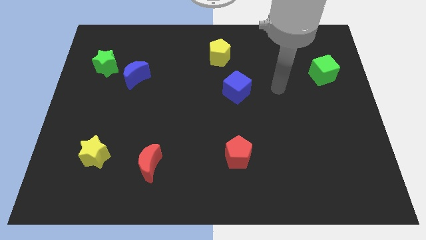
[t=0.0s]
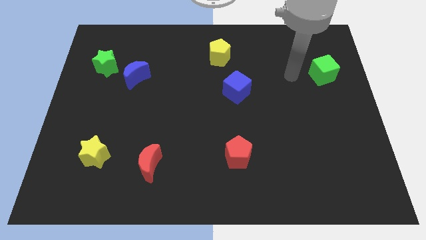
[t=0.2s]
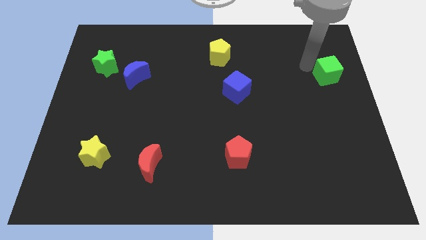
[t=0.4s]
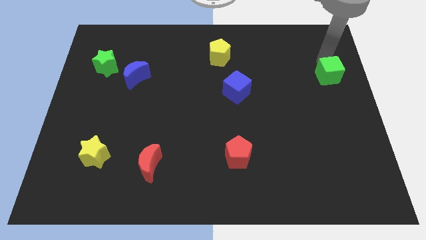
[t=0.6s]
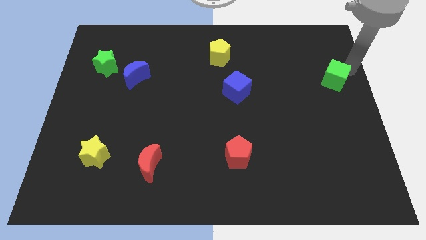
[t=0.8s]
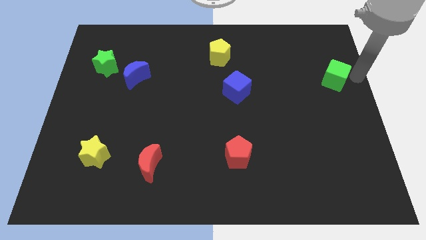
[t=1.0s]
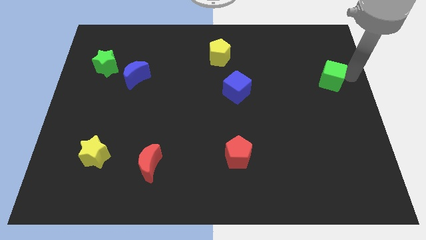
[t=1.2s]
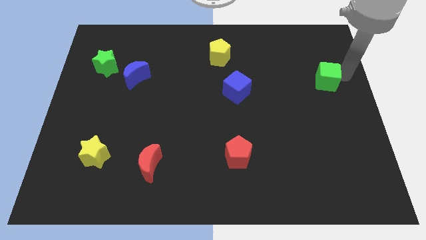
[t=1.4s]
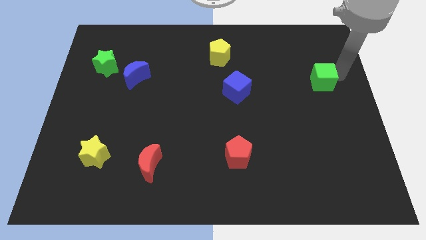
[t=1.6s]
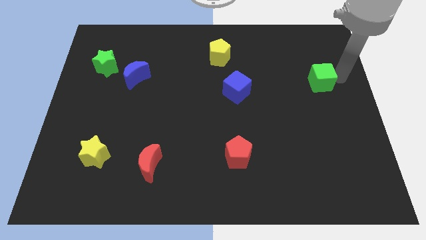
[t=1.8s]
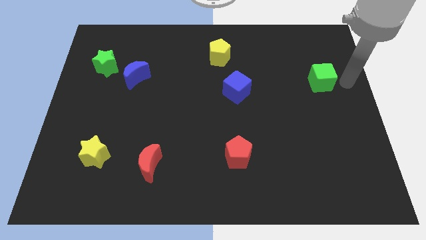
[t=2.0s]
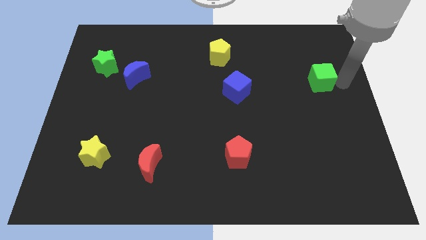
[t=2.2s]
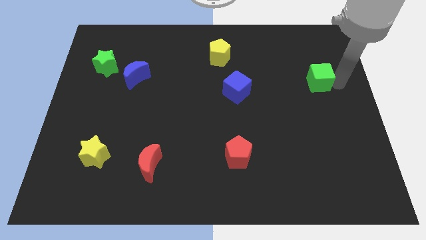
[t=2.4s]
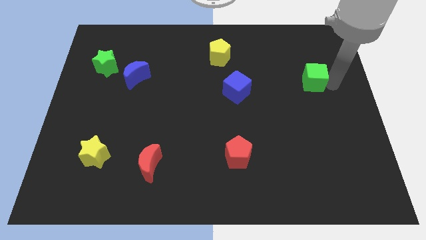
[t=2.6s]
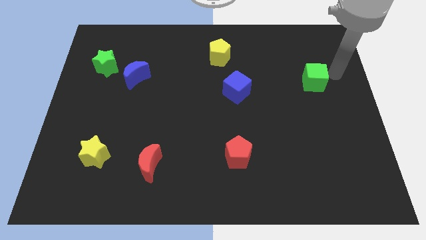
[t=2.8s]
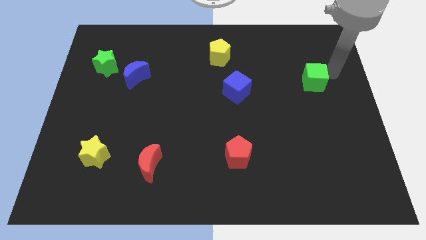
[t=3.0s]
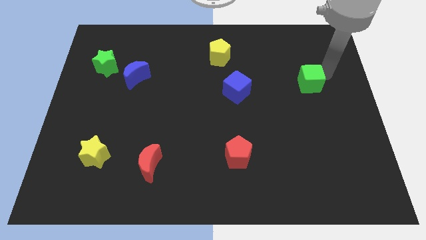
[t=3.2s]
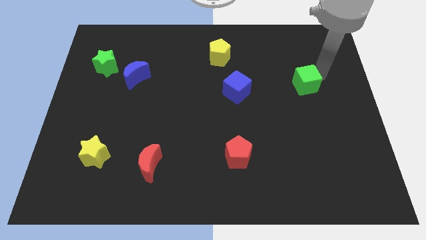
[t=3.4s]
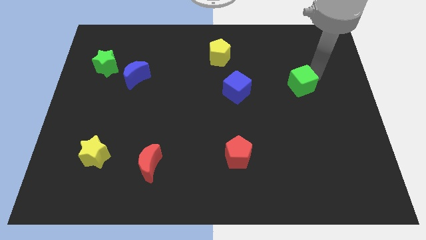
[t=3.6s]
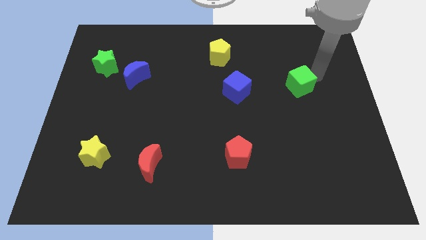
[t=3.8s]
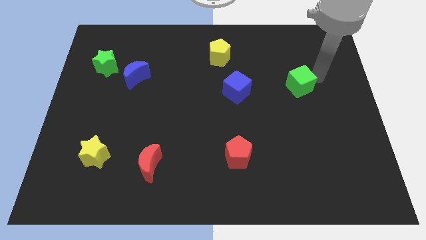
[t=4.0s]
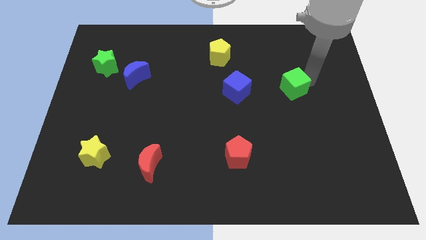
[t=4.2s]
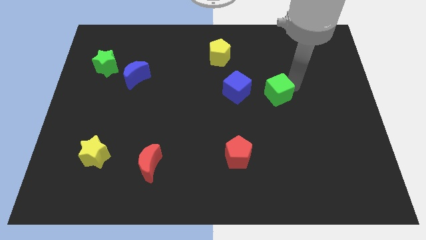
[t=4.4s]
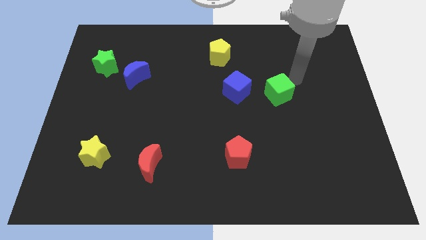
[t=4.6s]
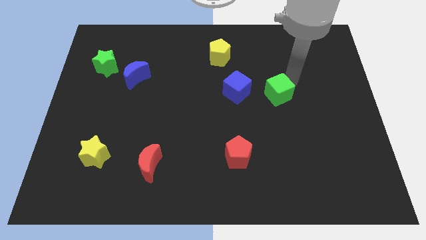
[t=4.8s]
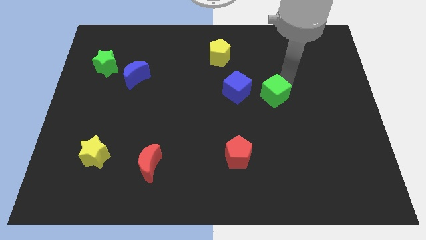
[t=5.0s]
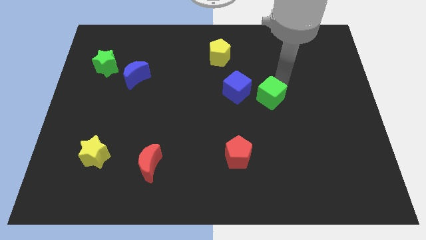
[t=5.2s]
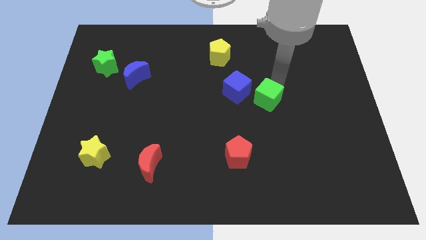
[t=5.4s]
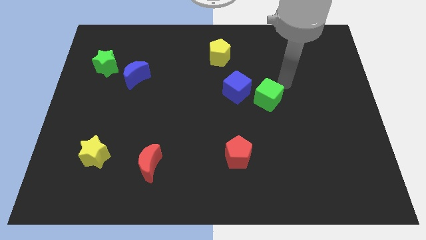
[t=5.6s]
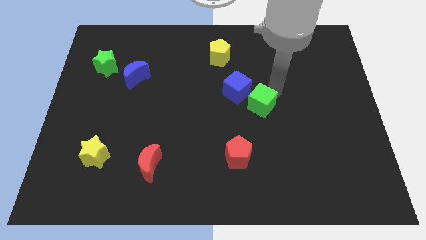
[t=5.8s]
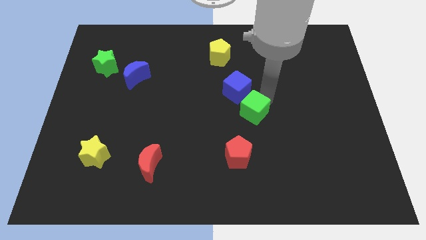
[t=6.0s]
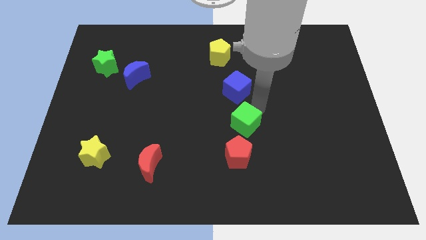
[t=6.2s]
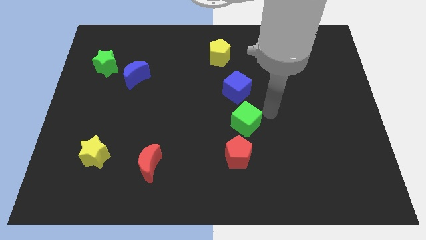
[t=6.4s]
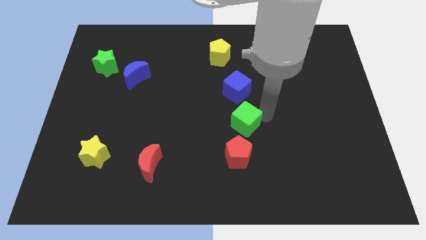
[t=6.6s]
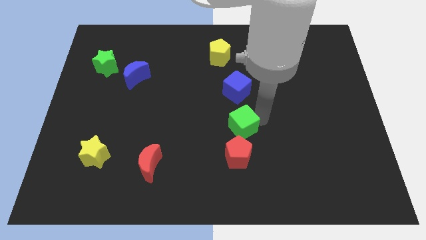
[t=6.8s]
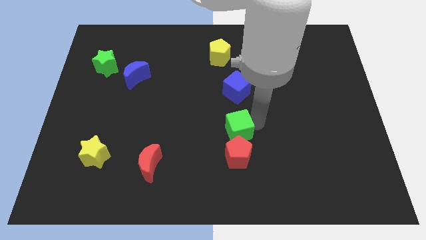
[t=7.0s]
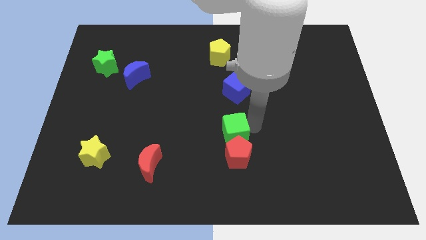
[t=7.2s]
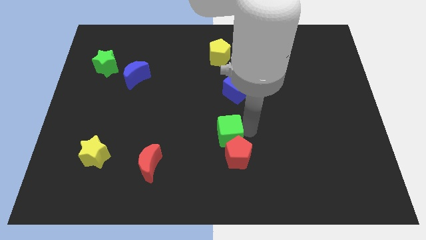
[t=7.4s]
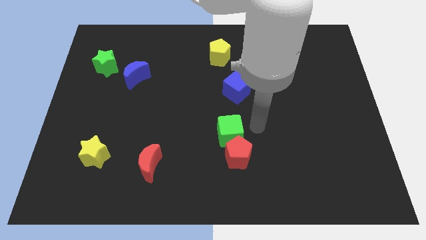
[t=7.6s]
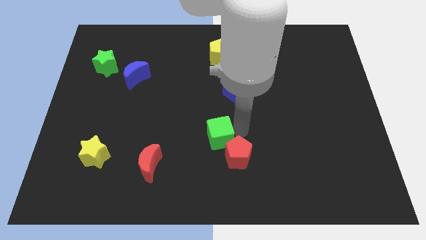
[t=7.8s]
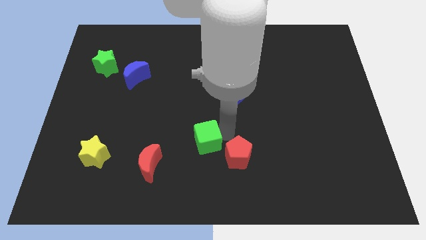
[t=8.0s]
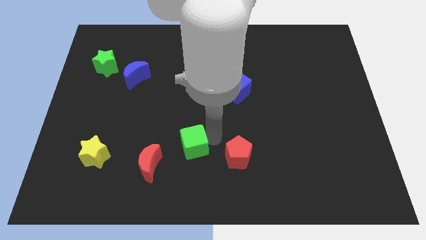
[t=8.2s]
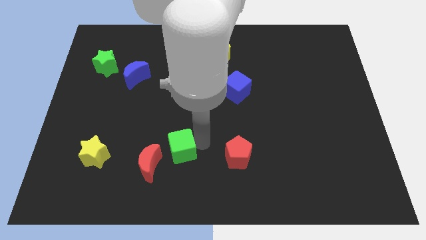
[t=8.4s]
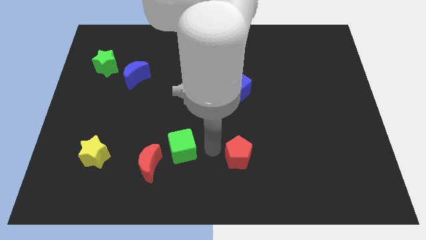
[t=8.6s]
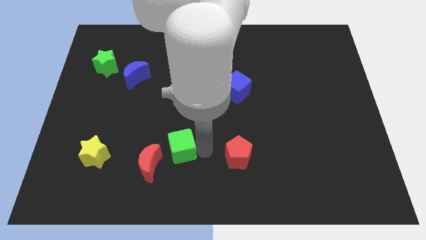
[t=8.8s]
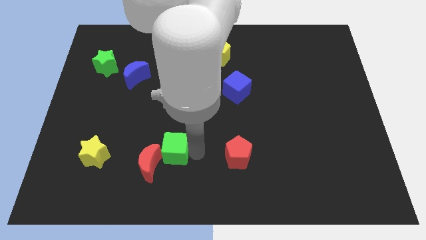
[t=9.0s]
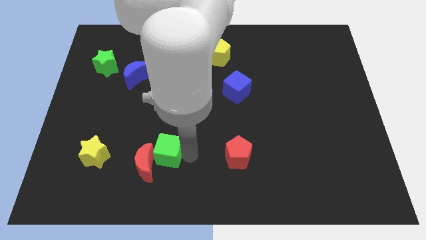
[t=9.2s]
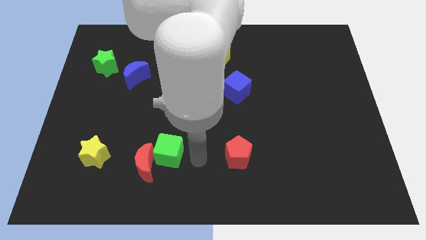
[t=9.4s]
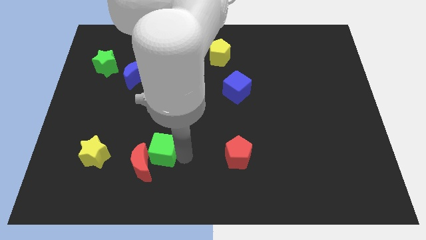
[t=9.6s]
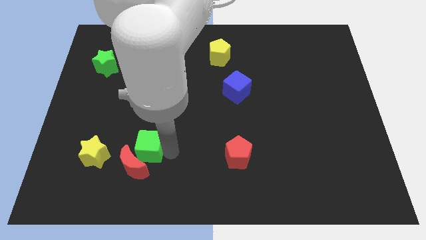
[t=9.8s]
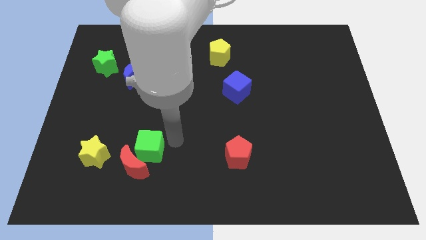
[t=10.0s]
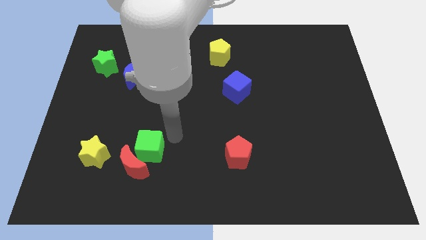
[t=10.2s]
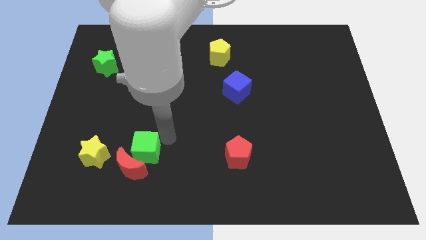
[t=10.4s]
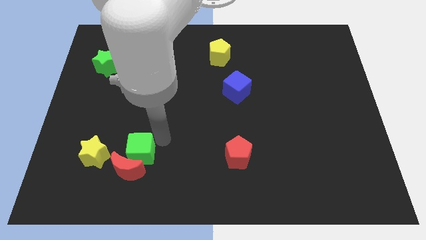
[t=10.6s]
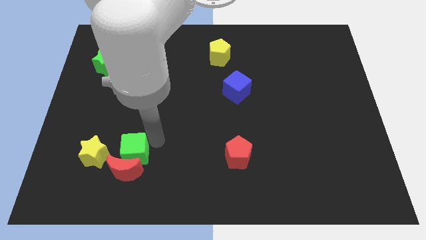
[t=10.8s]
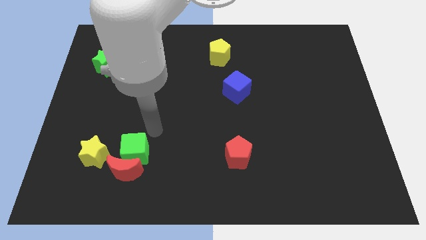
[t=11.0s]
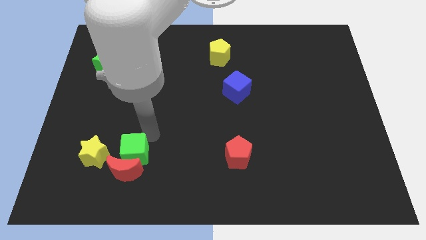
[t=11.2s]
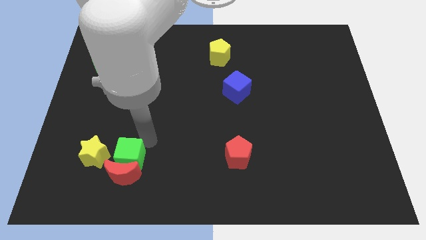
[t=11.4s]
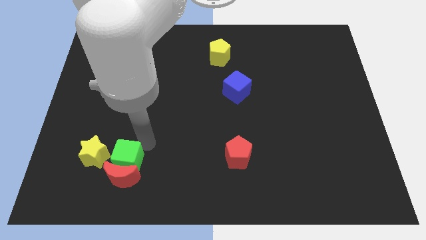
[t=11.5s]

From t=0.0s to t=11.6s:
push the green cube to the bottom right of the yellow star

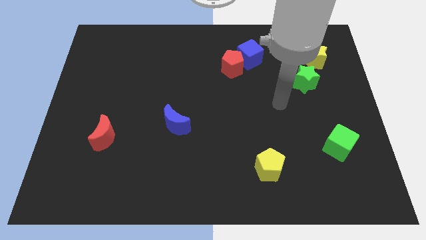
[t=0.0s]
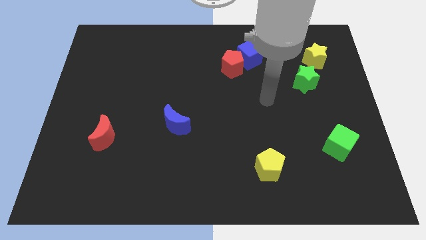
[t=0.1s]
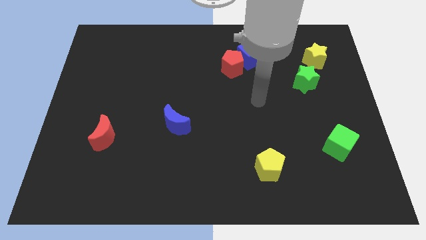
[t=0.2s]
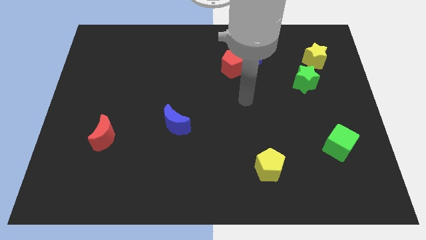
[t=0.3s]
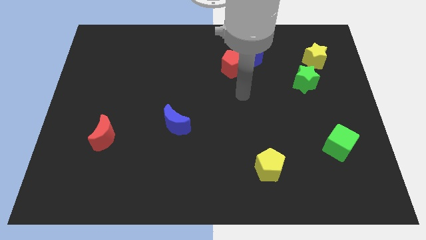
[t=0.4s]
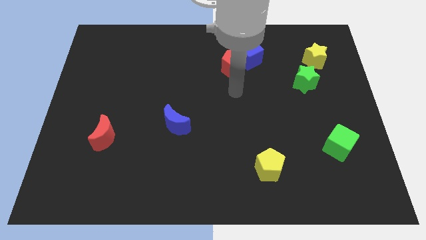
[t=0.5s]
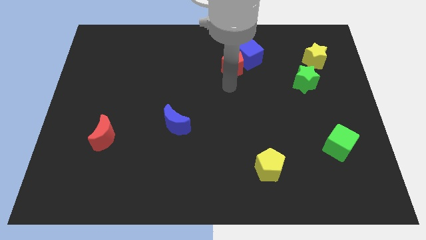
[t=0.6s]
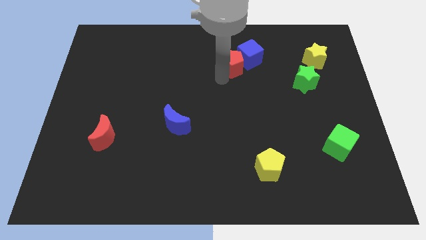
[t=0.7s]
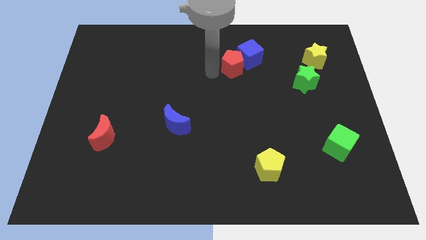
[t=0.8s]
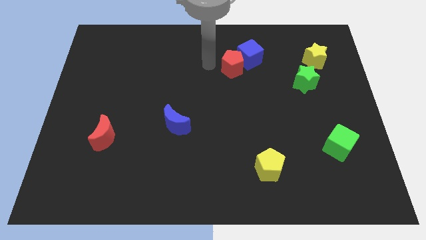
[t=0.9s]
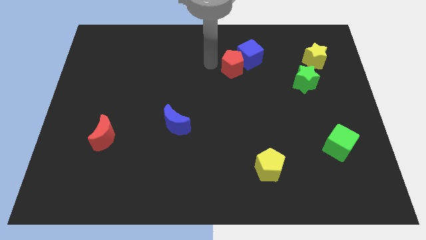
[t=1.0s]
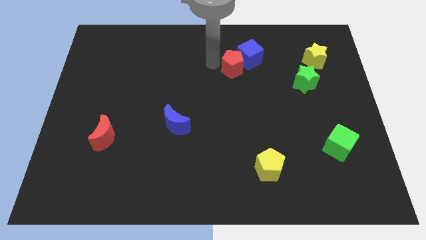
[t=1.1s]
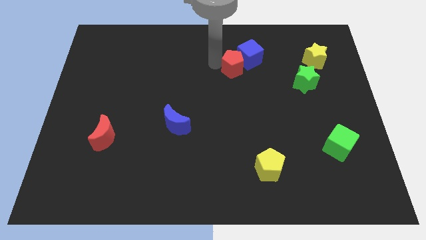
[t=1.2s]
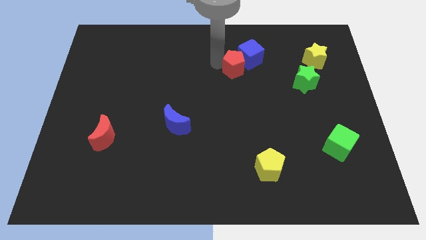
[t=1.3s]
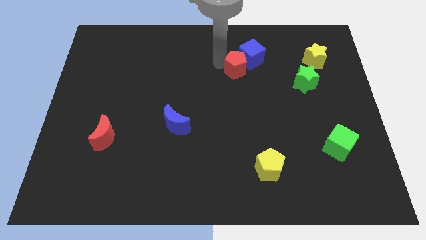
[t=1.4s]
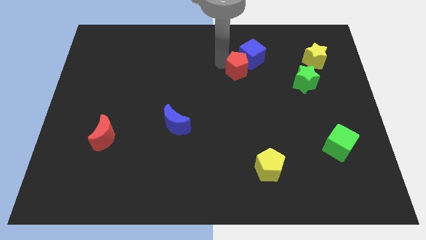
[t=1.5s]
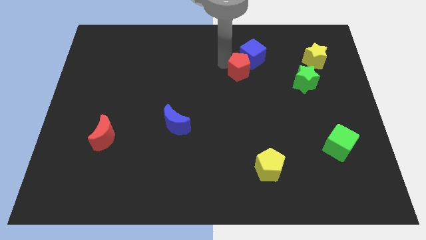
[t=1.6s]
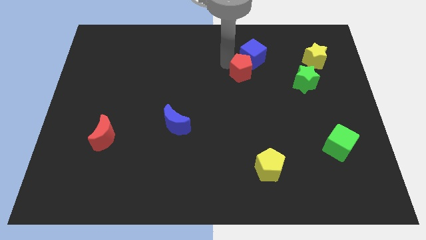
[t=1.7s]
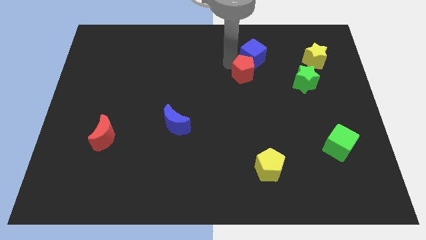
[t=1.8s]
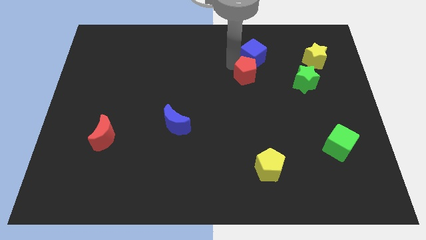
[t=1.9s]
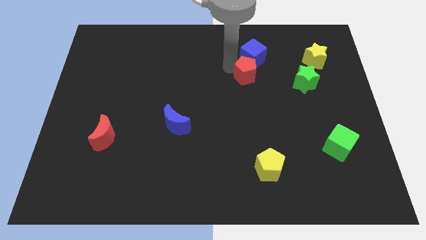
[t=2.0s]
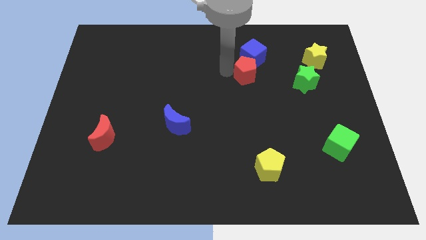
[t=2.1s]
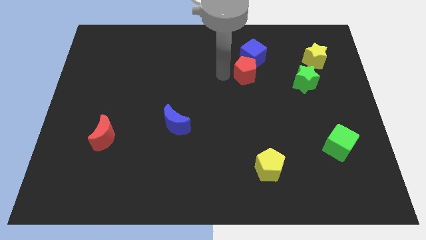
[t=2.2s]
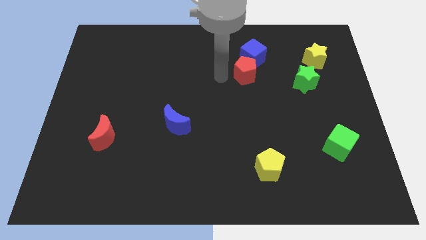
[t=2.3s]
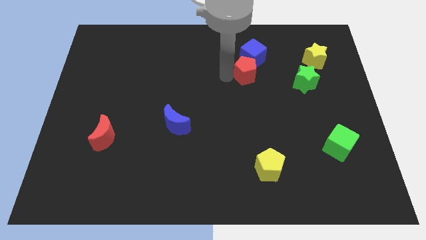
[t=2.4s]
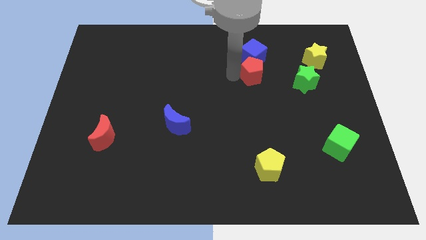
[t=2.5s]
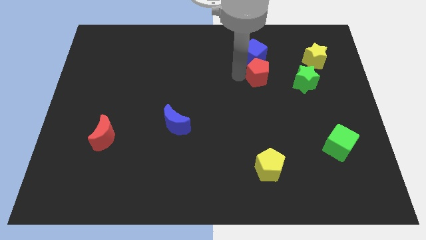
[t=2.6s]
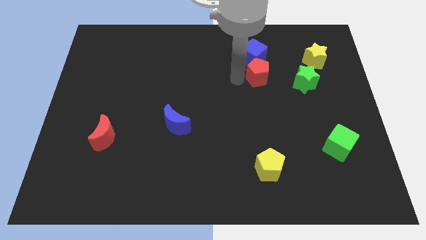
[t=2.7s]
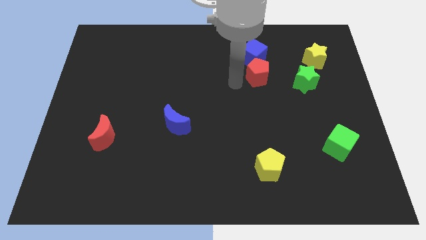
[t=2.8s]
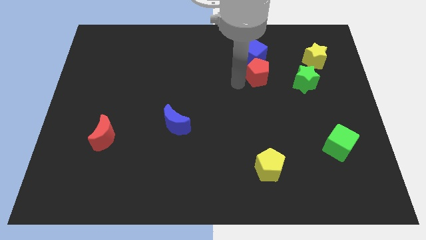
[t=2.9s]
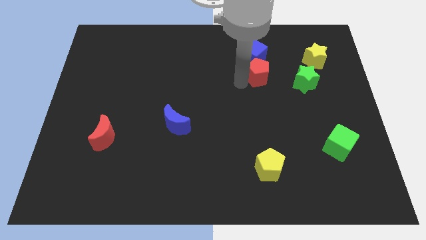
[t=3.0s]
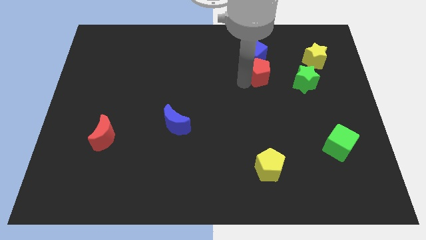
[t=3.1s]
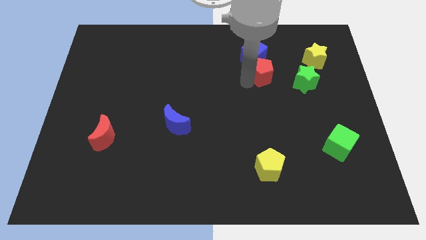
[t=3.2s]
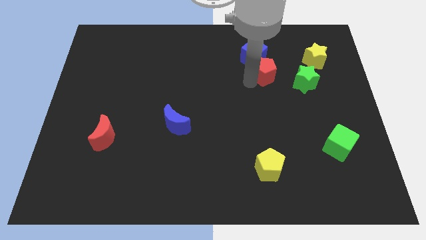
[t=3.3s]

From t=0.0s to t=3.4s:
slide the red pentagon to the top left side of the green star
